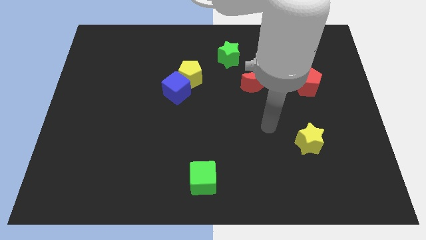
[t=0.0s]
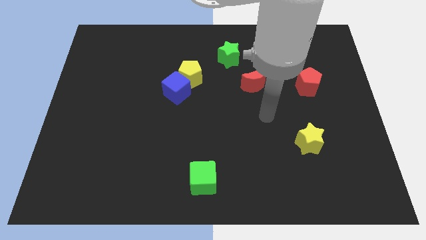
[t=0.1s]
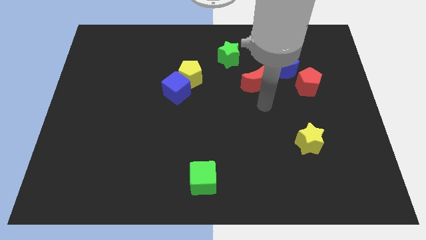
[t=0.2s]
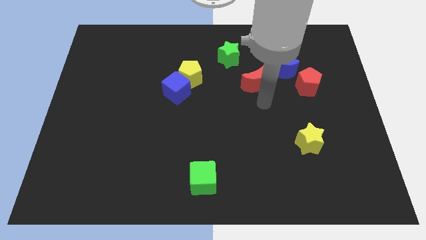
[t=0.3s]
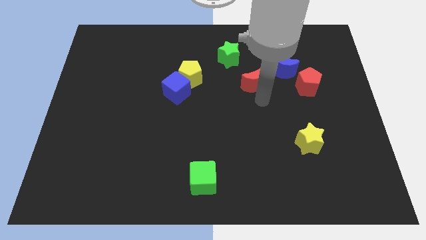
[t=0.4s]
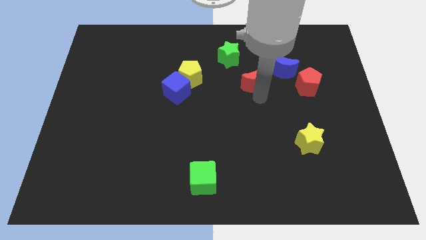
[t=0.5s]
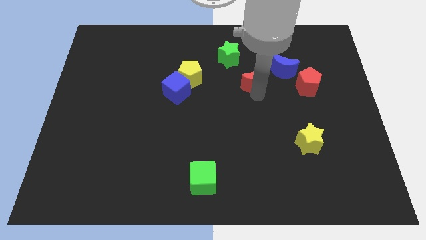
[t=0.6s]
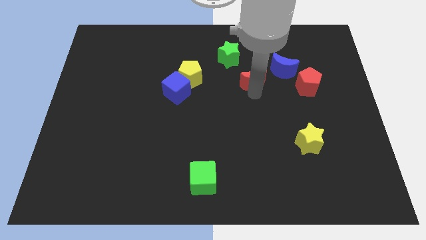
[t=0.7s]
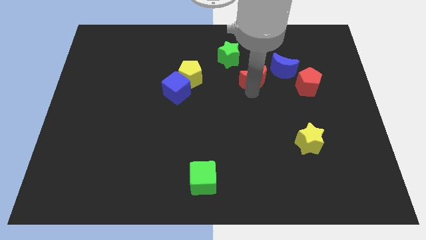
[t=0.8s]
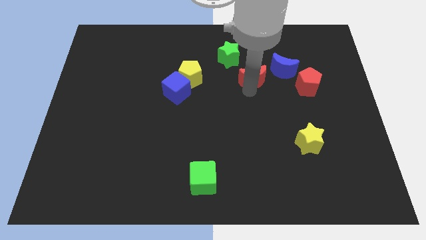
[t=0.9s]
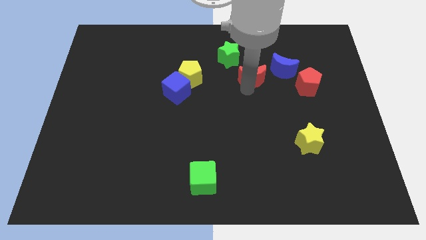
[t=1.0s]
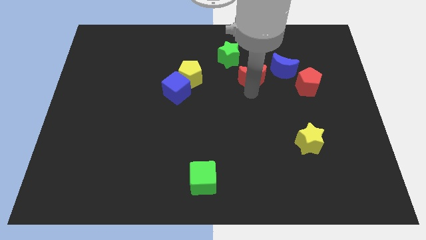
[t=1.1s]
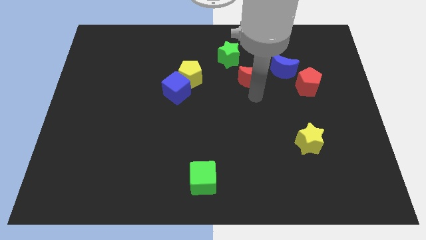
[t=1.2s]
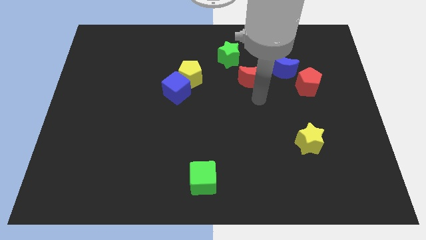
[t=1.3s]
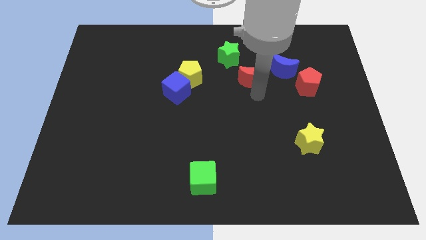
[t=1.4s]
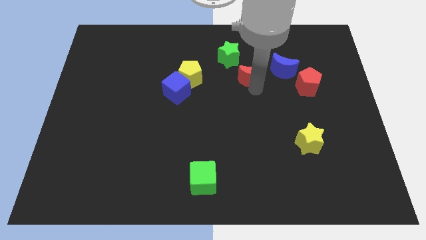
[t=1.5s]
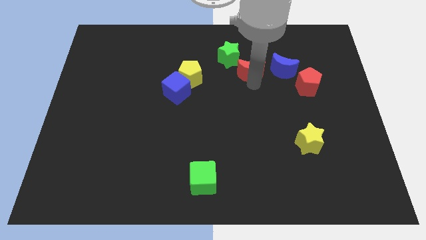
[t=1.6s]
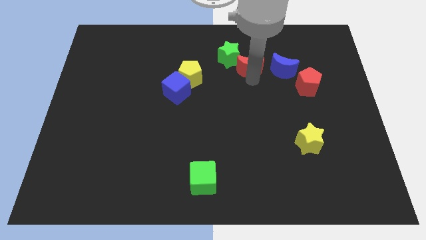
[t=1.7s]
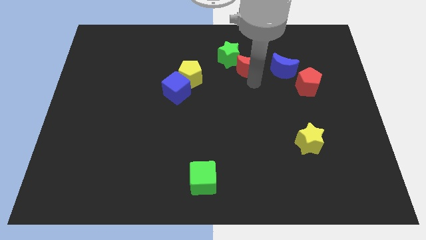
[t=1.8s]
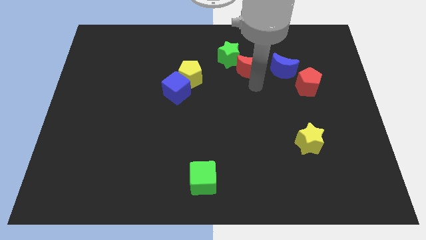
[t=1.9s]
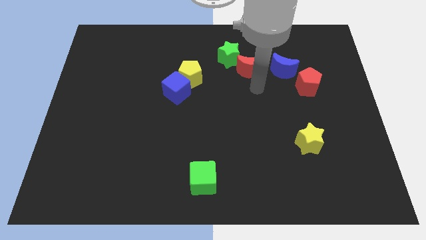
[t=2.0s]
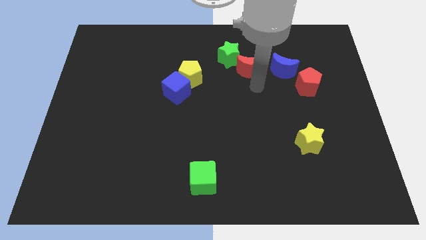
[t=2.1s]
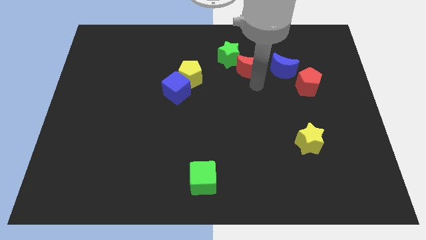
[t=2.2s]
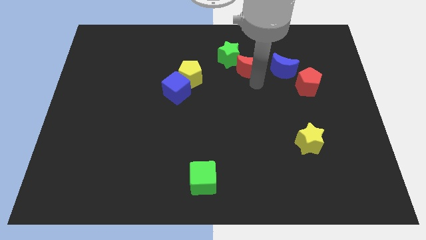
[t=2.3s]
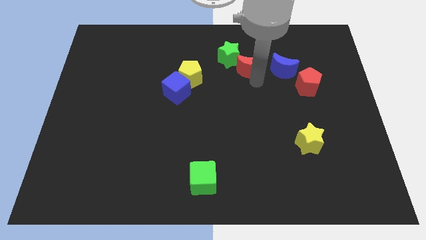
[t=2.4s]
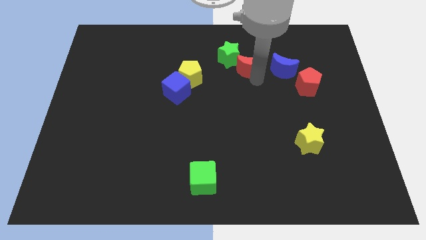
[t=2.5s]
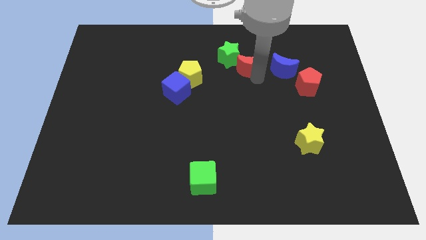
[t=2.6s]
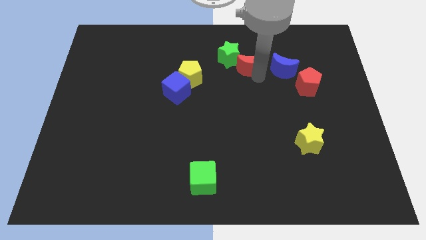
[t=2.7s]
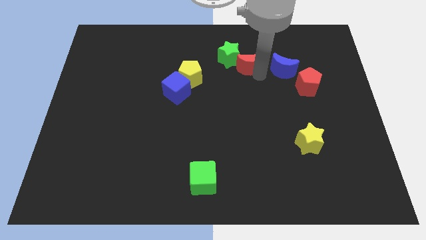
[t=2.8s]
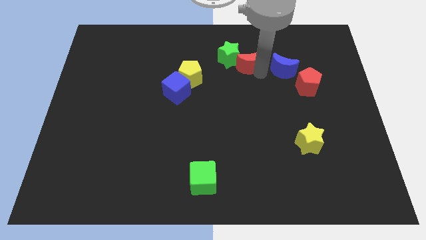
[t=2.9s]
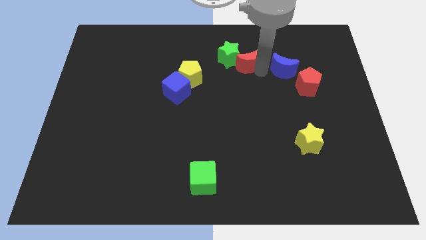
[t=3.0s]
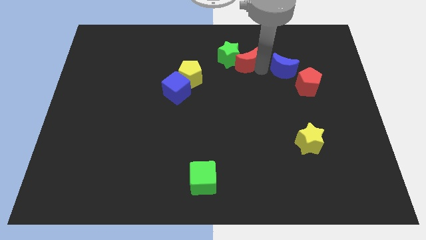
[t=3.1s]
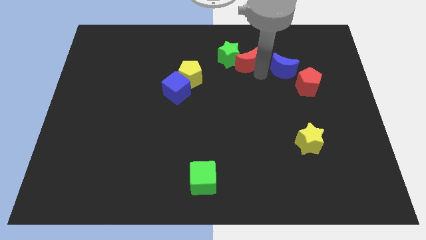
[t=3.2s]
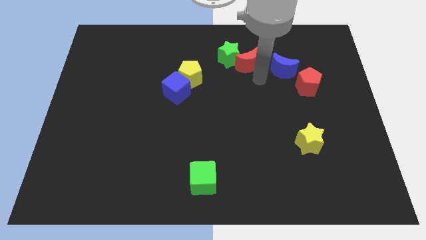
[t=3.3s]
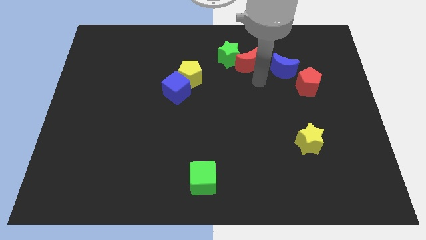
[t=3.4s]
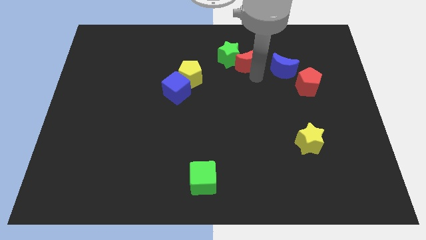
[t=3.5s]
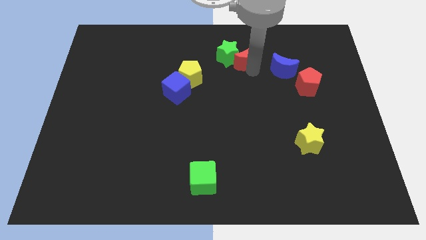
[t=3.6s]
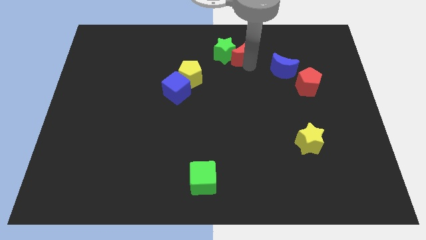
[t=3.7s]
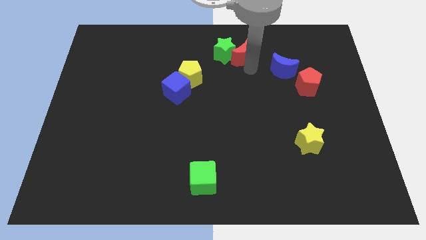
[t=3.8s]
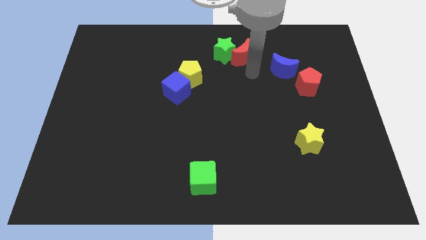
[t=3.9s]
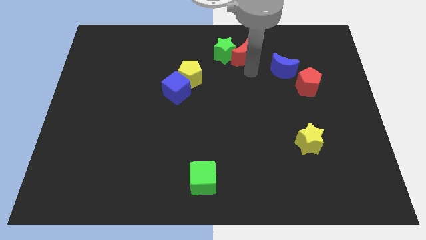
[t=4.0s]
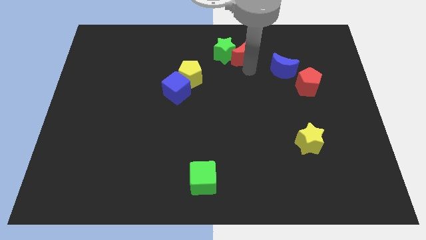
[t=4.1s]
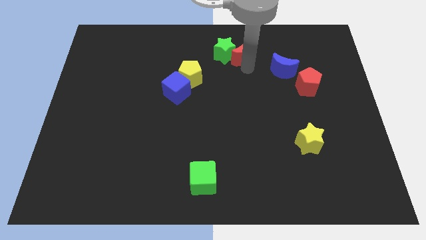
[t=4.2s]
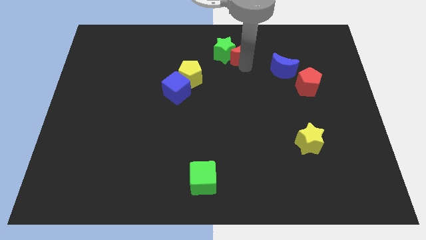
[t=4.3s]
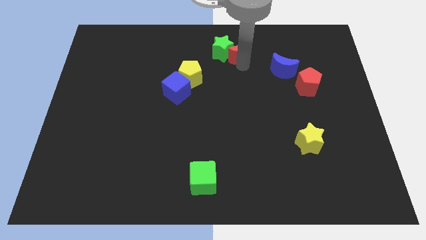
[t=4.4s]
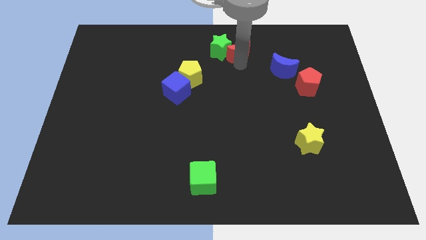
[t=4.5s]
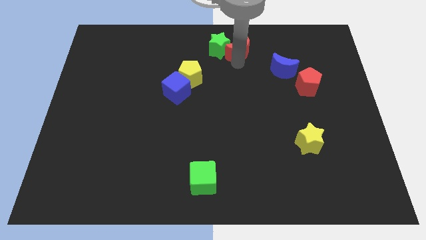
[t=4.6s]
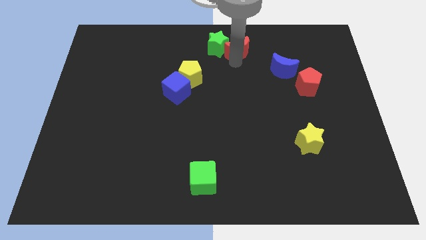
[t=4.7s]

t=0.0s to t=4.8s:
slide the red moon to the towards your base

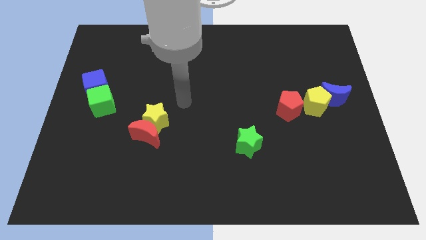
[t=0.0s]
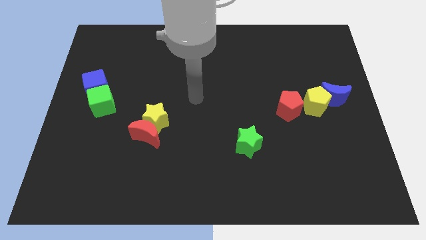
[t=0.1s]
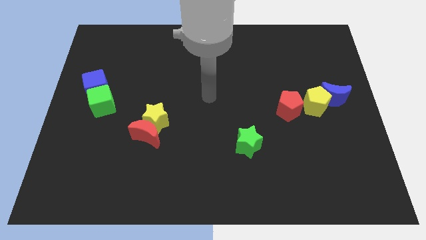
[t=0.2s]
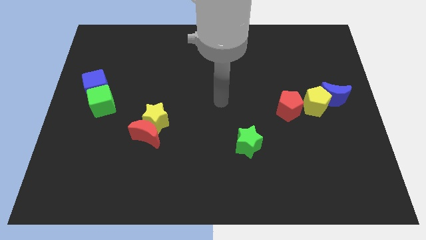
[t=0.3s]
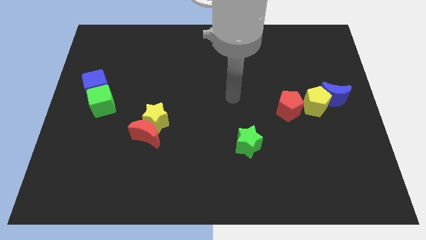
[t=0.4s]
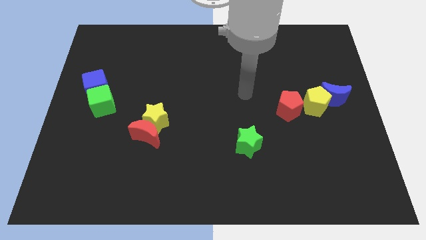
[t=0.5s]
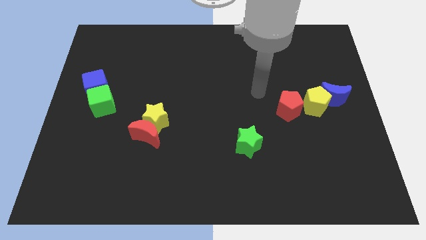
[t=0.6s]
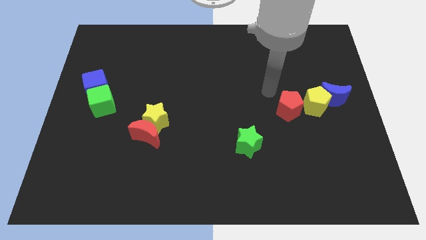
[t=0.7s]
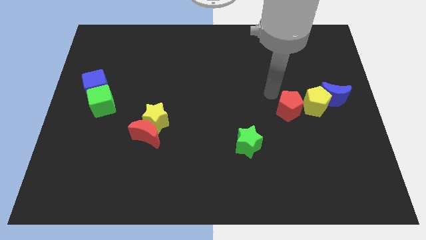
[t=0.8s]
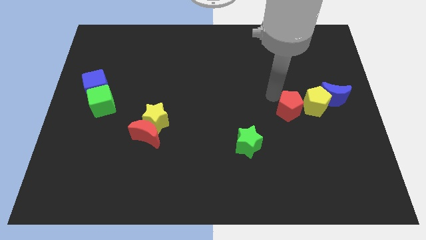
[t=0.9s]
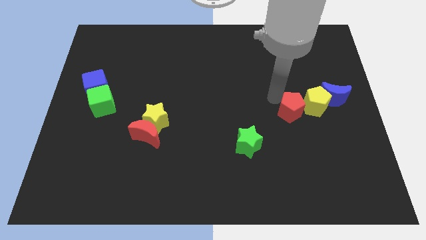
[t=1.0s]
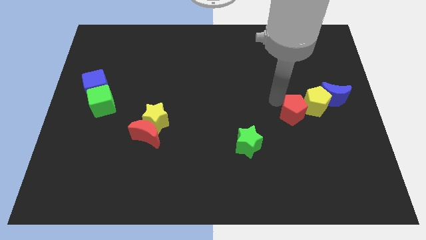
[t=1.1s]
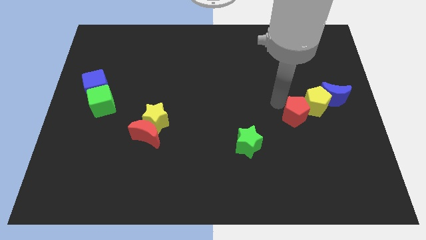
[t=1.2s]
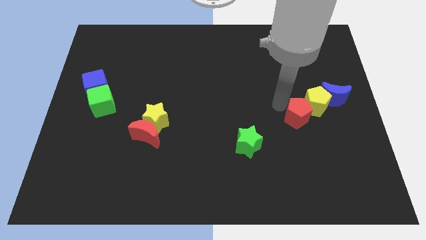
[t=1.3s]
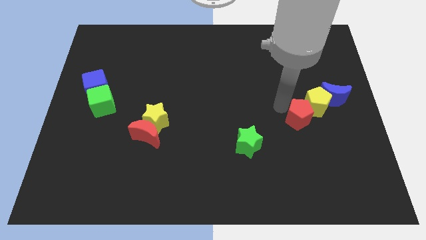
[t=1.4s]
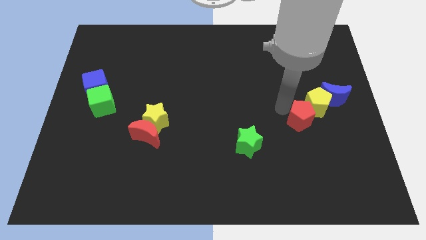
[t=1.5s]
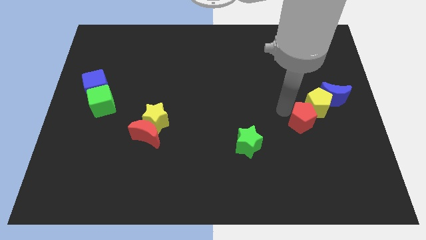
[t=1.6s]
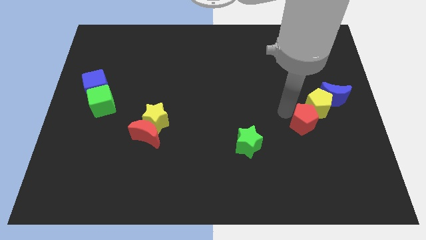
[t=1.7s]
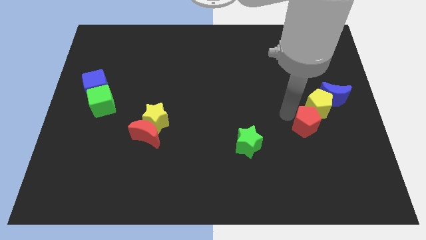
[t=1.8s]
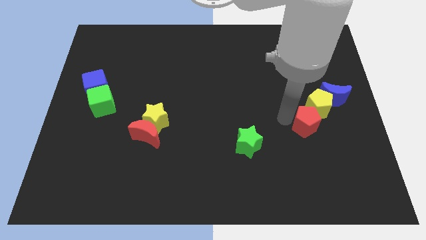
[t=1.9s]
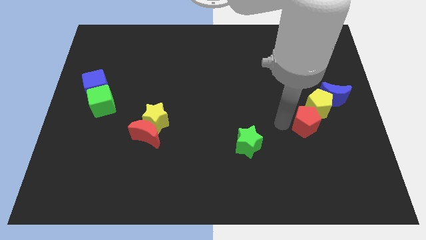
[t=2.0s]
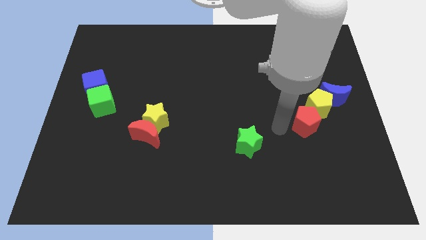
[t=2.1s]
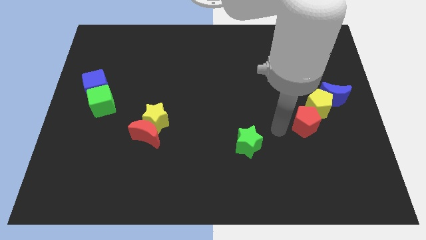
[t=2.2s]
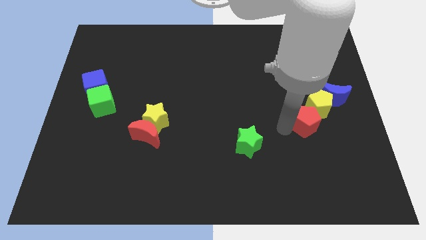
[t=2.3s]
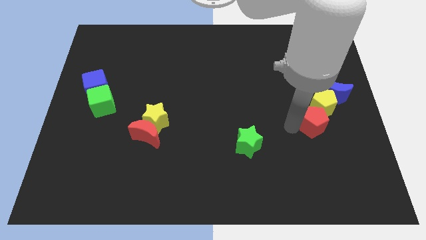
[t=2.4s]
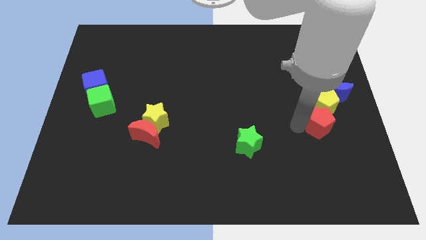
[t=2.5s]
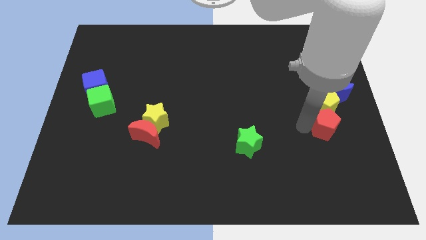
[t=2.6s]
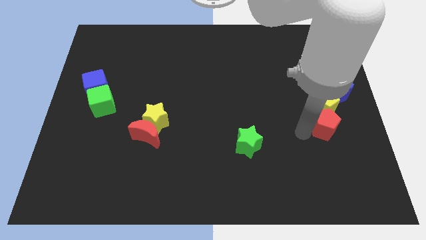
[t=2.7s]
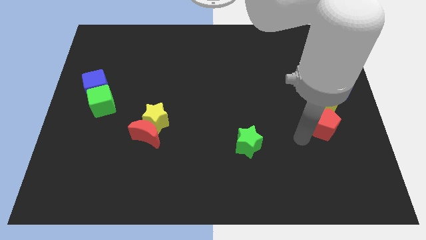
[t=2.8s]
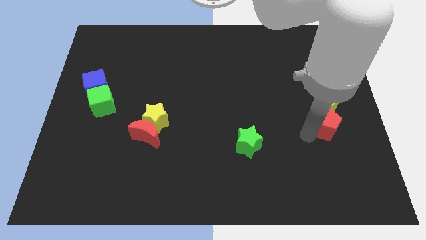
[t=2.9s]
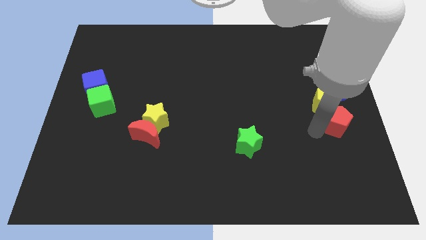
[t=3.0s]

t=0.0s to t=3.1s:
put the red pentagon to the center right

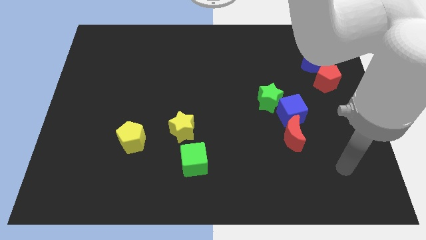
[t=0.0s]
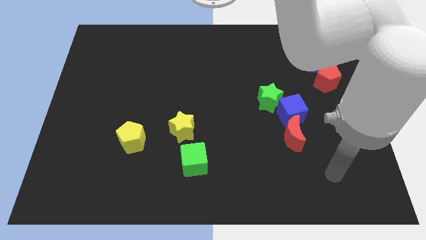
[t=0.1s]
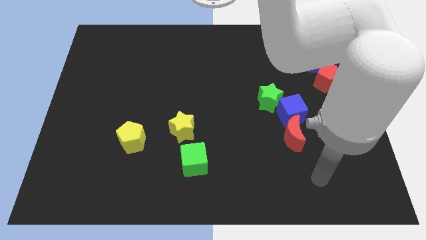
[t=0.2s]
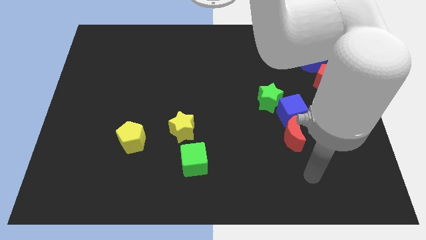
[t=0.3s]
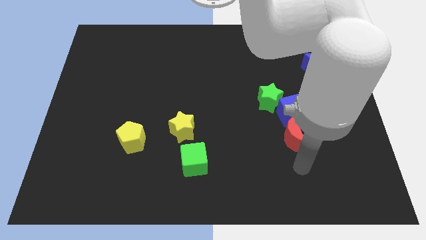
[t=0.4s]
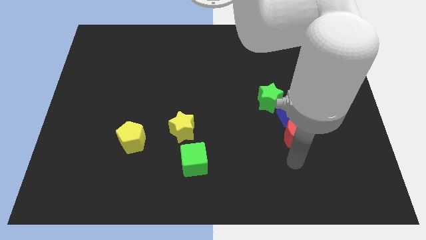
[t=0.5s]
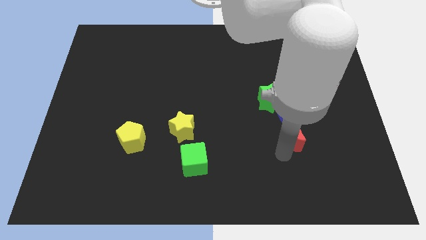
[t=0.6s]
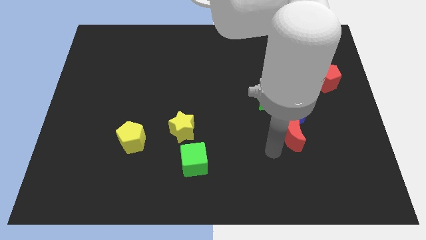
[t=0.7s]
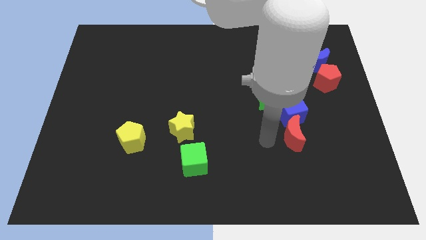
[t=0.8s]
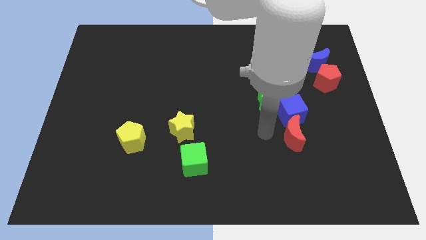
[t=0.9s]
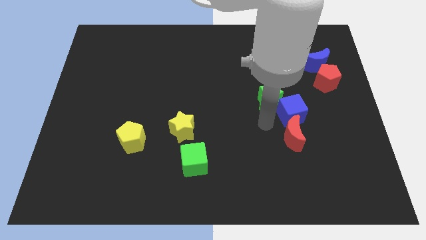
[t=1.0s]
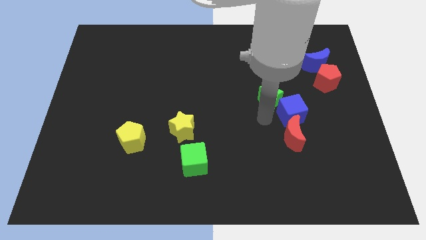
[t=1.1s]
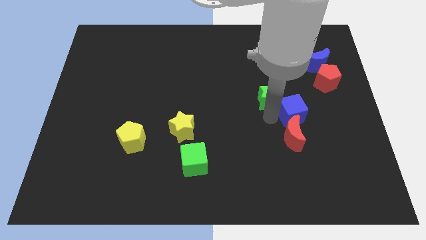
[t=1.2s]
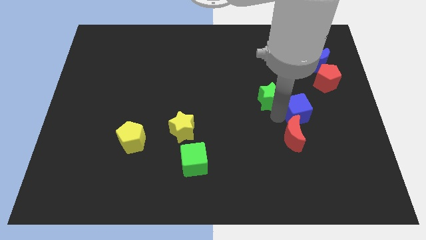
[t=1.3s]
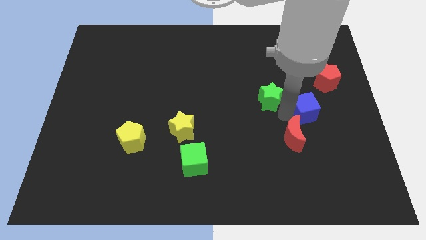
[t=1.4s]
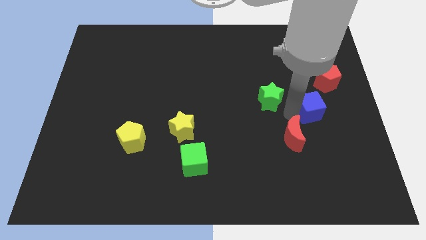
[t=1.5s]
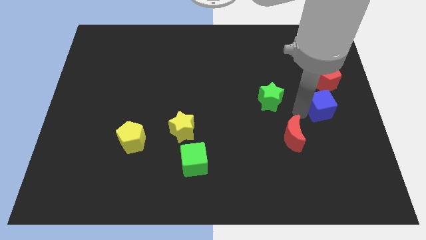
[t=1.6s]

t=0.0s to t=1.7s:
push the blue cube to the right side of the board
